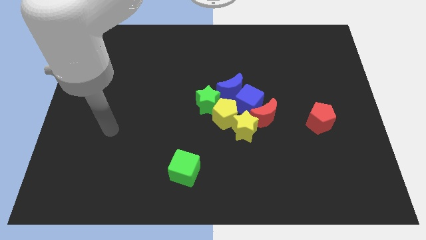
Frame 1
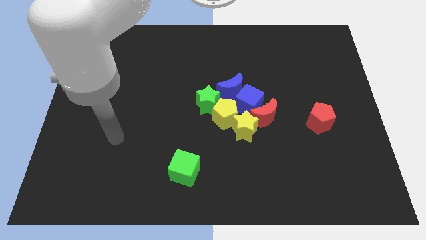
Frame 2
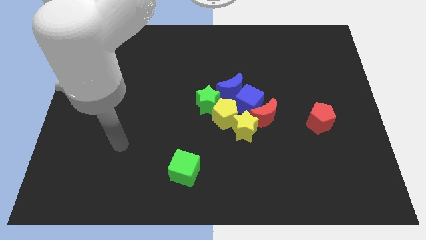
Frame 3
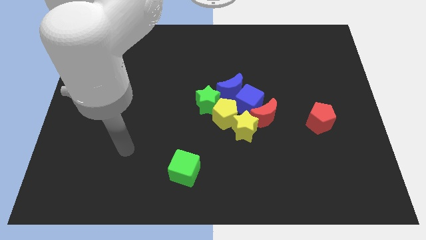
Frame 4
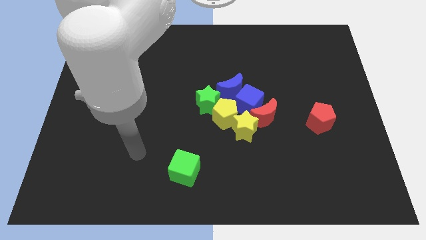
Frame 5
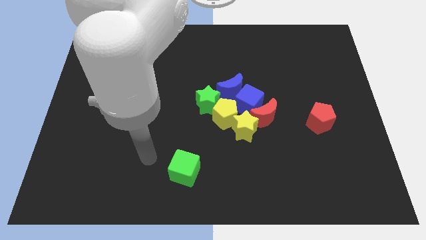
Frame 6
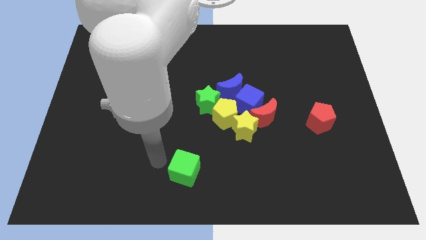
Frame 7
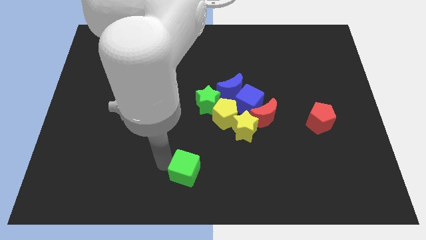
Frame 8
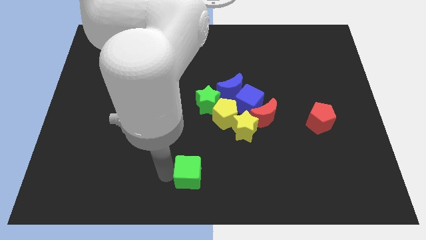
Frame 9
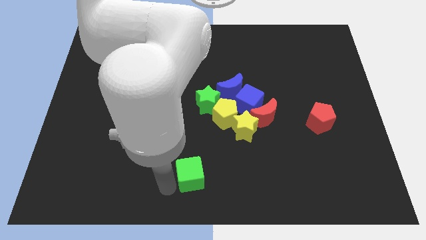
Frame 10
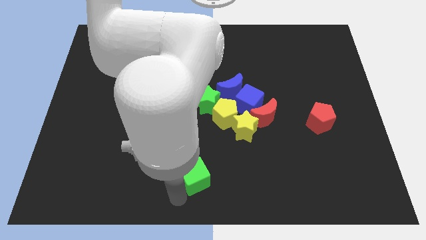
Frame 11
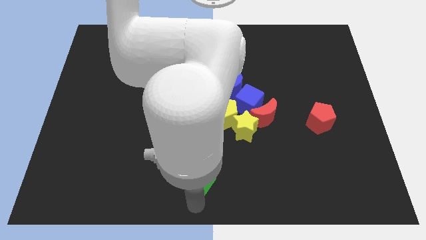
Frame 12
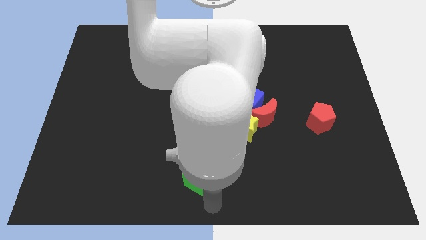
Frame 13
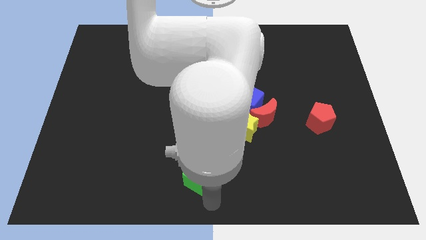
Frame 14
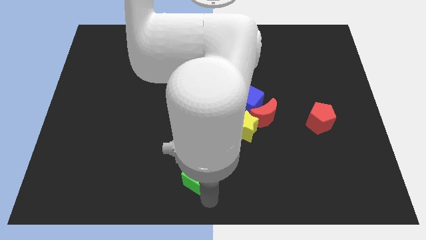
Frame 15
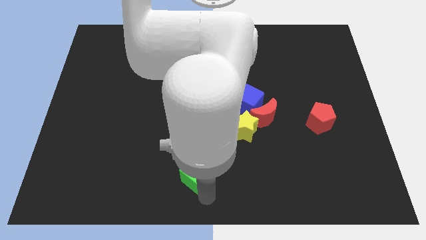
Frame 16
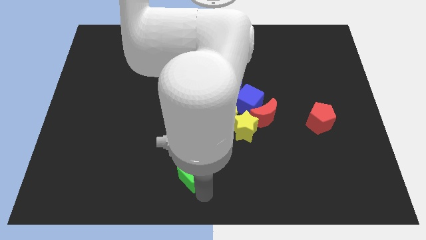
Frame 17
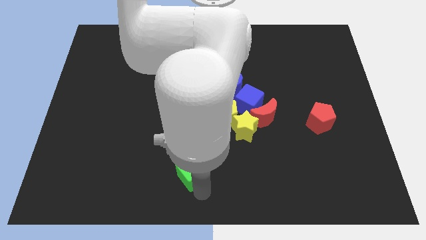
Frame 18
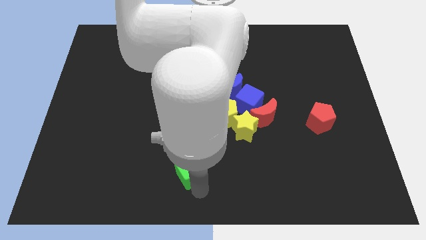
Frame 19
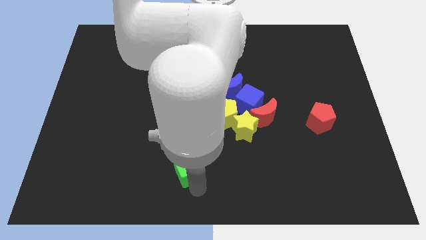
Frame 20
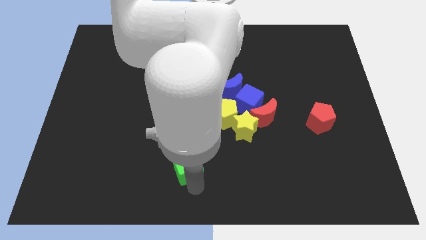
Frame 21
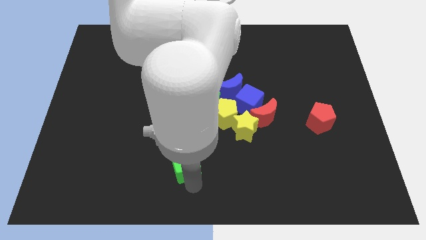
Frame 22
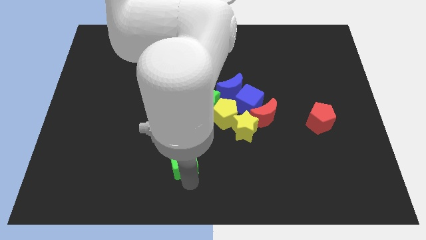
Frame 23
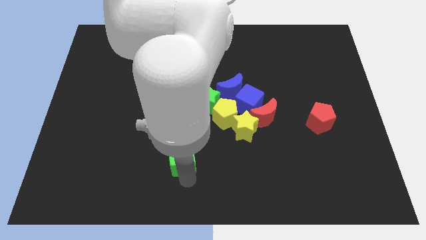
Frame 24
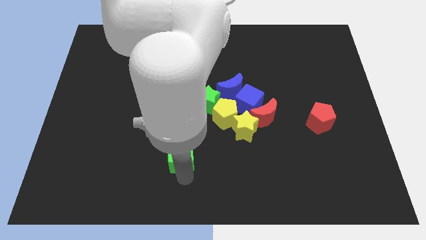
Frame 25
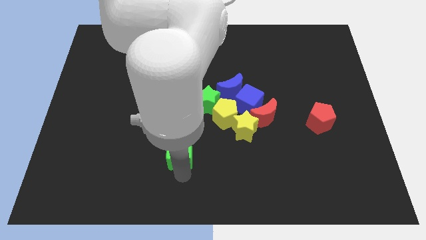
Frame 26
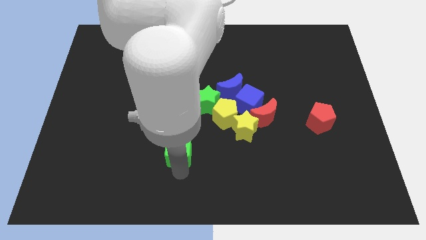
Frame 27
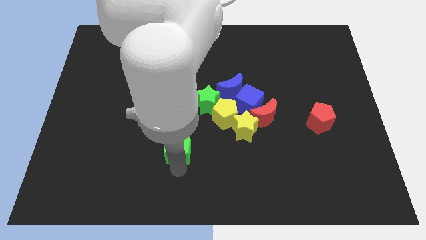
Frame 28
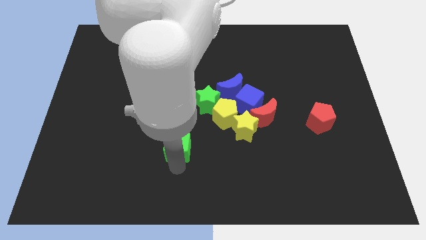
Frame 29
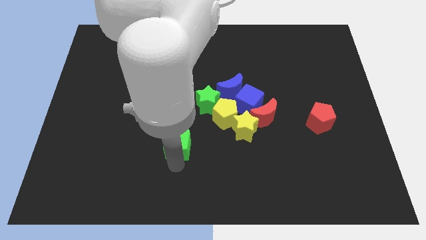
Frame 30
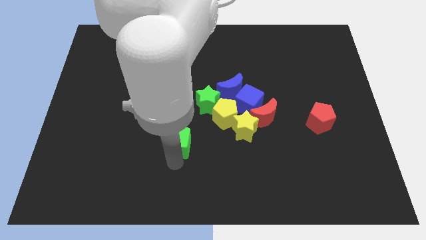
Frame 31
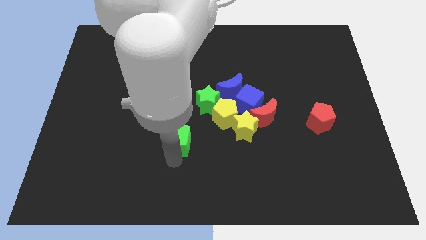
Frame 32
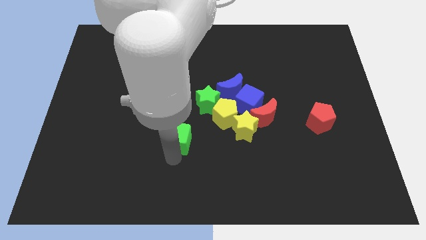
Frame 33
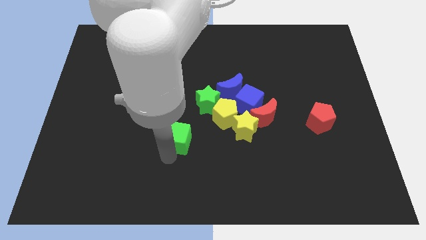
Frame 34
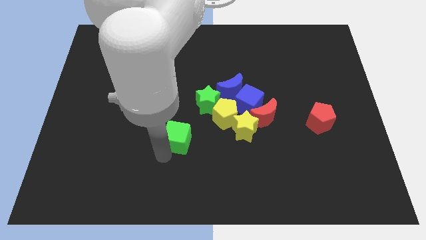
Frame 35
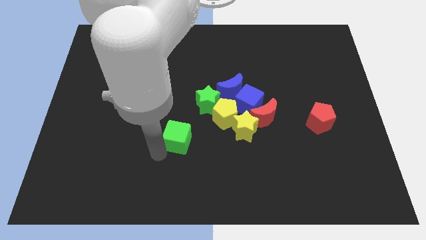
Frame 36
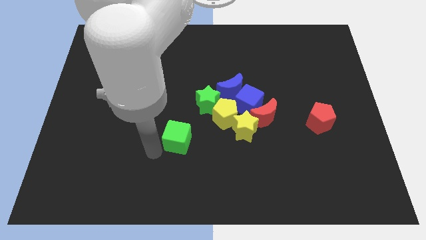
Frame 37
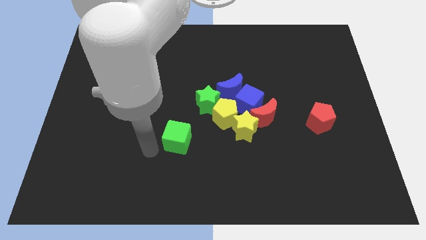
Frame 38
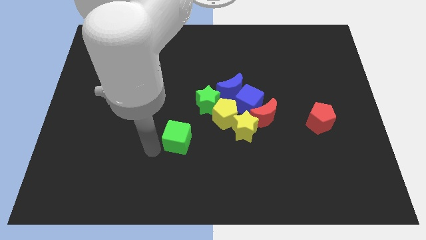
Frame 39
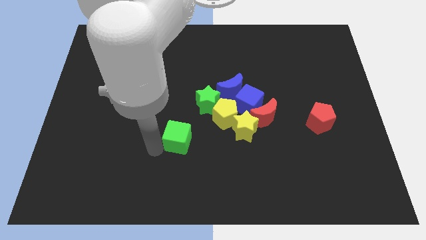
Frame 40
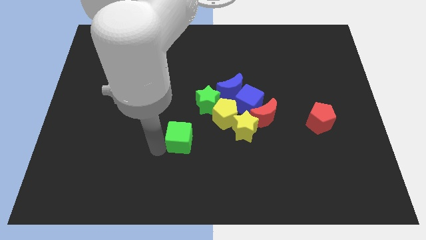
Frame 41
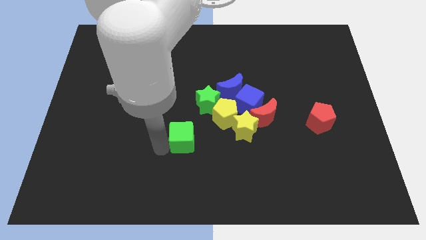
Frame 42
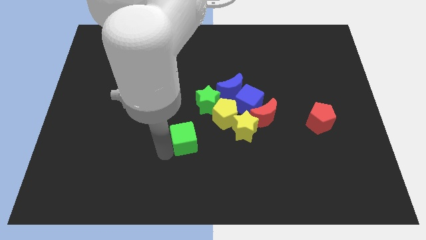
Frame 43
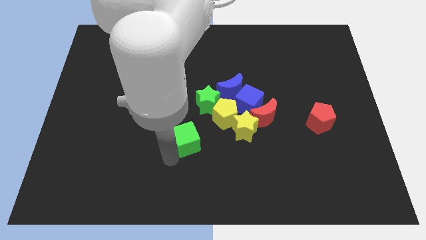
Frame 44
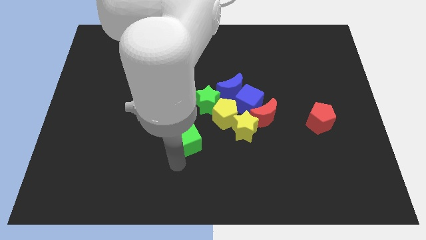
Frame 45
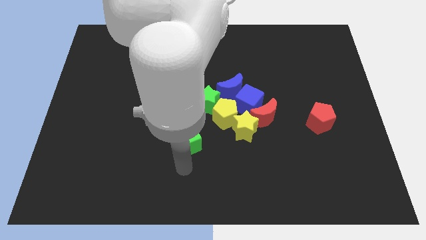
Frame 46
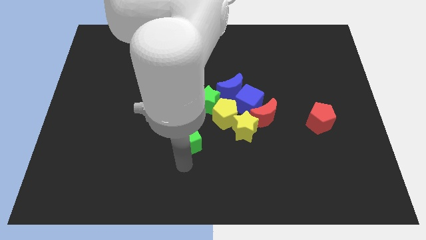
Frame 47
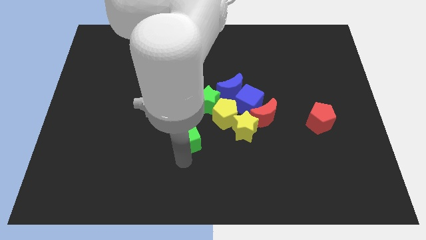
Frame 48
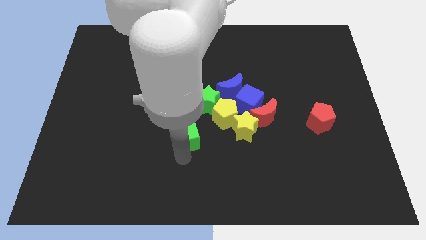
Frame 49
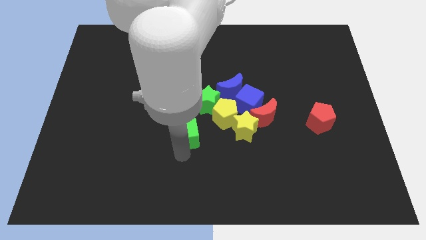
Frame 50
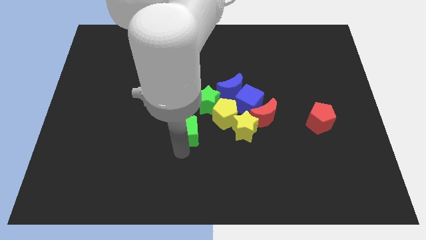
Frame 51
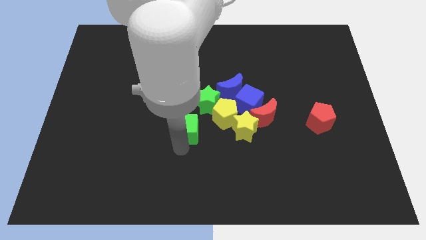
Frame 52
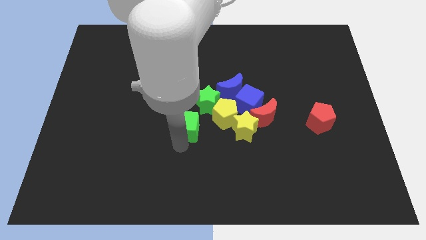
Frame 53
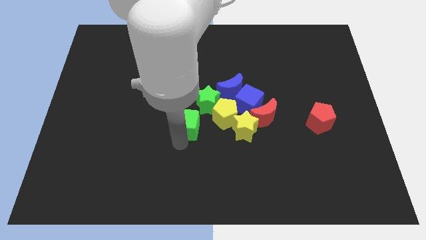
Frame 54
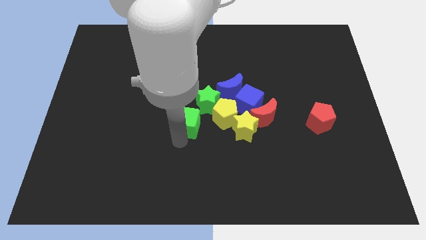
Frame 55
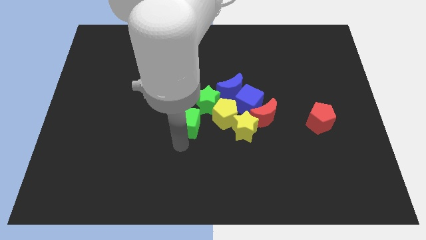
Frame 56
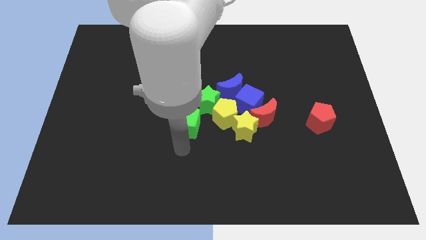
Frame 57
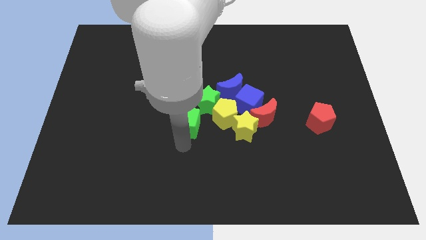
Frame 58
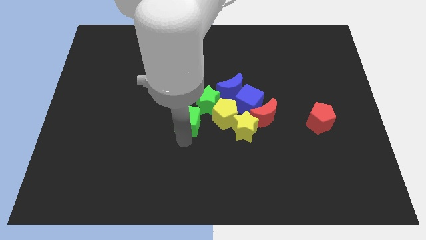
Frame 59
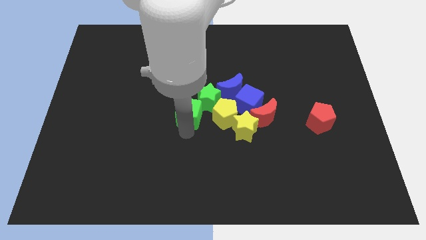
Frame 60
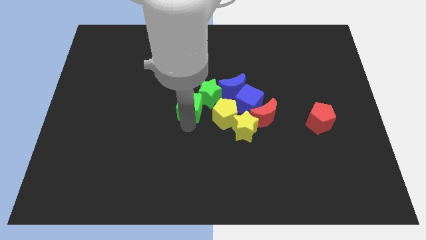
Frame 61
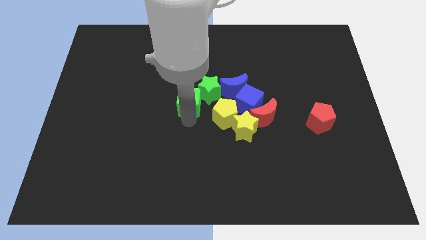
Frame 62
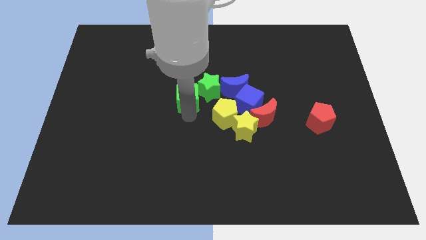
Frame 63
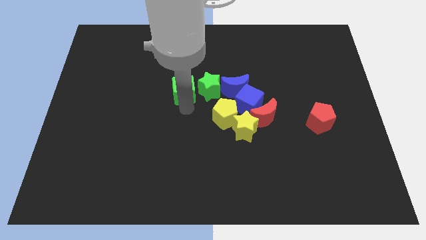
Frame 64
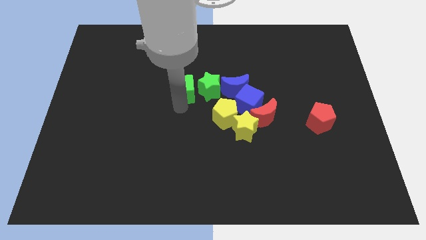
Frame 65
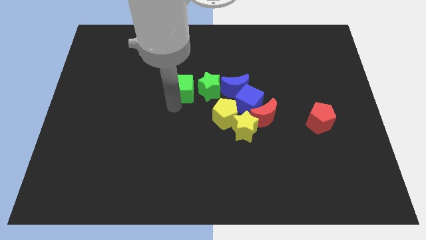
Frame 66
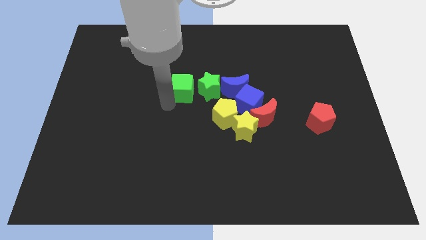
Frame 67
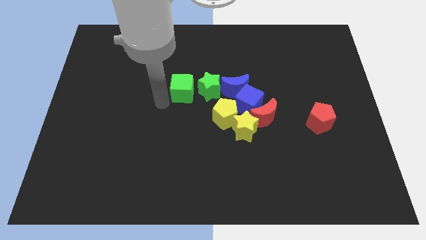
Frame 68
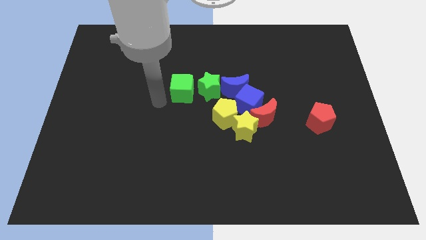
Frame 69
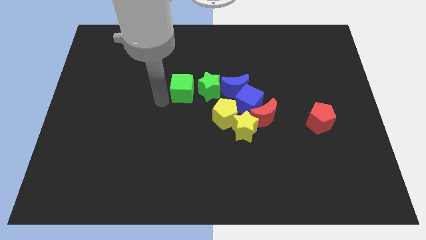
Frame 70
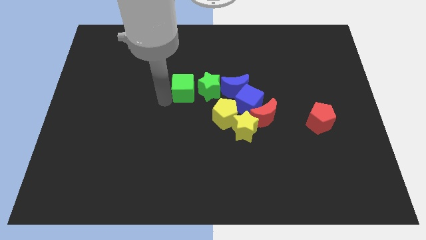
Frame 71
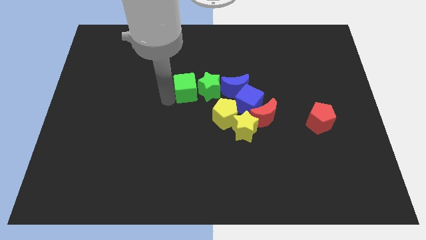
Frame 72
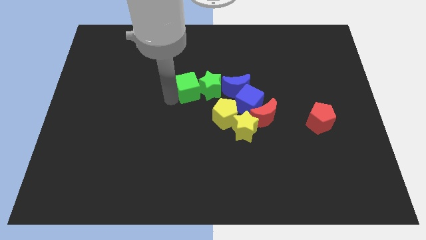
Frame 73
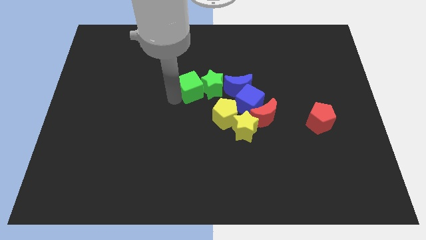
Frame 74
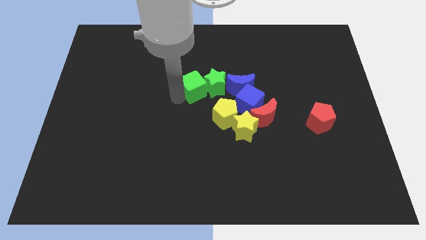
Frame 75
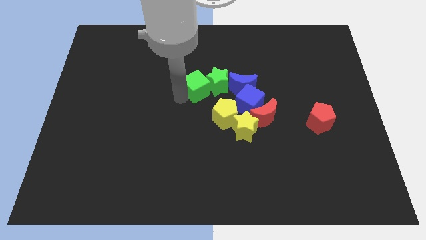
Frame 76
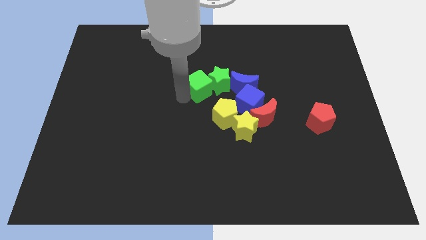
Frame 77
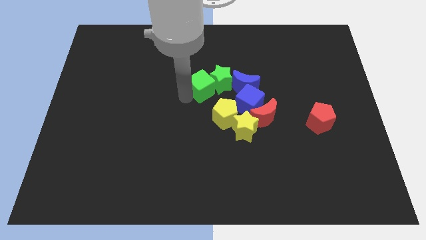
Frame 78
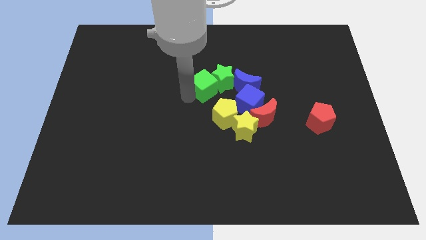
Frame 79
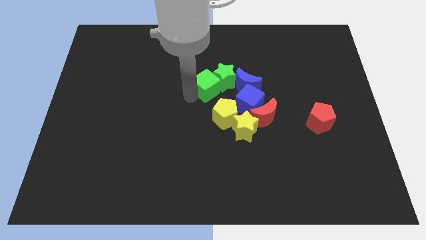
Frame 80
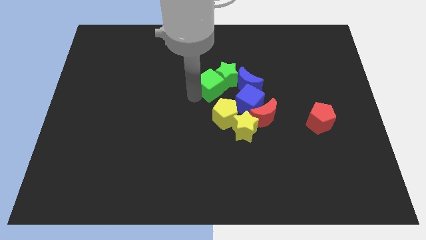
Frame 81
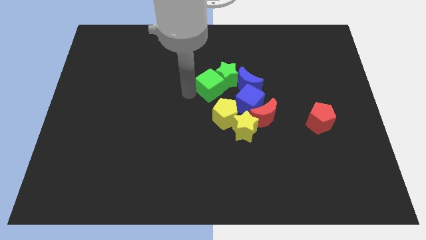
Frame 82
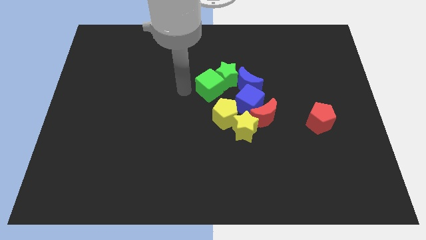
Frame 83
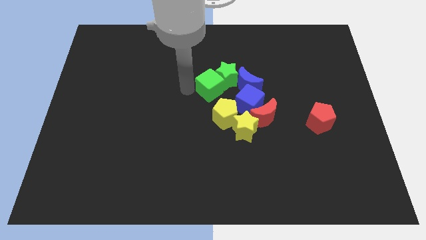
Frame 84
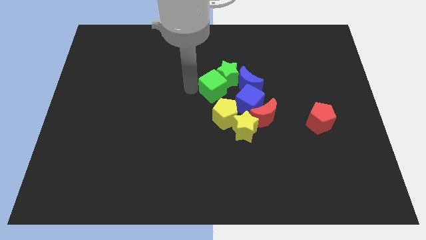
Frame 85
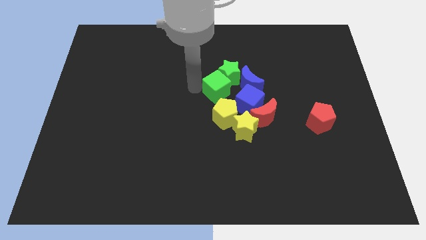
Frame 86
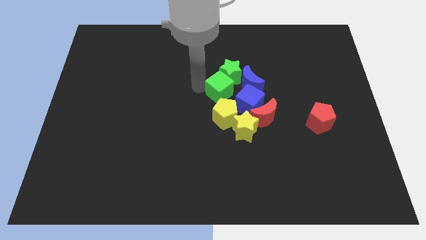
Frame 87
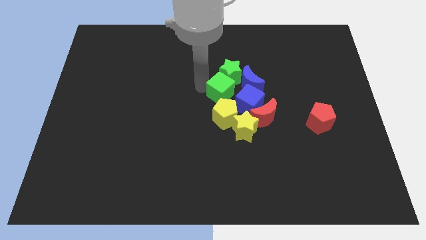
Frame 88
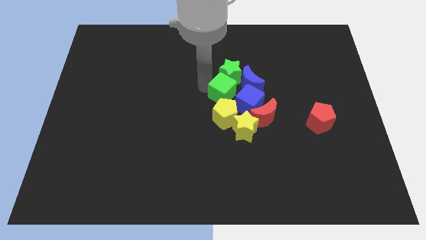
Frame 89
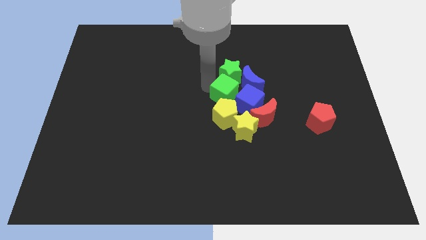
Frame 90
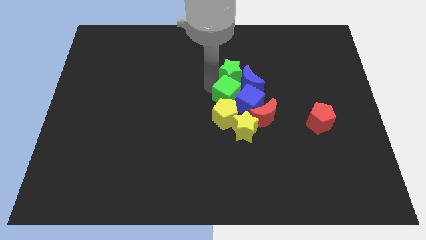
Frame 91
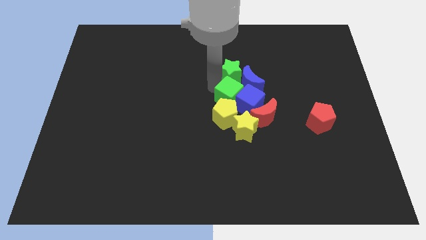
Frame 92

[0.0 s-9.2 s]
move the green cube next to the blue moon
